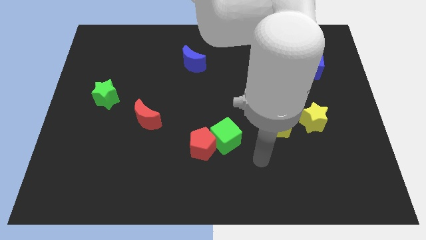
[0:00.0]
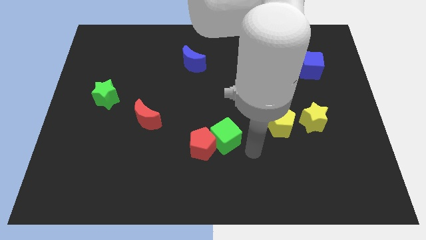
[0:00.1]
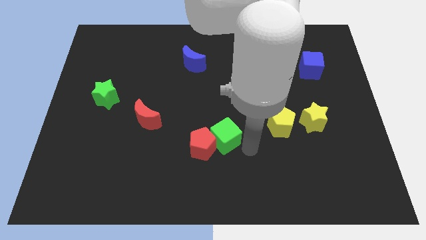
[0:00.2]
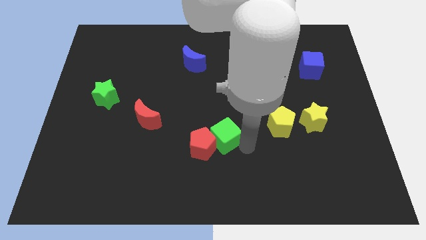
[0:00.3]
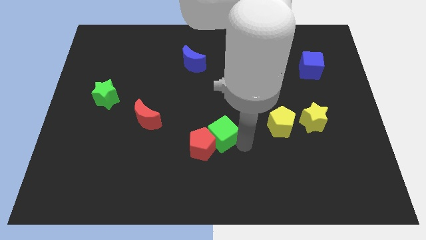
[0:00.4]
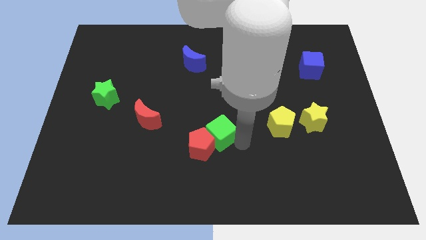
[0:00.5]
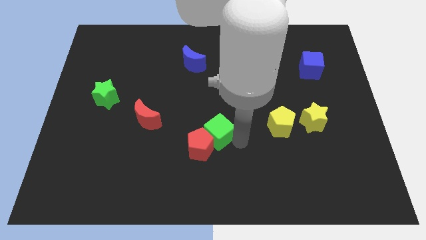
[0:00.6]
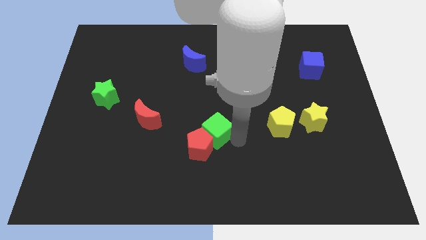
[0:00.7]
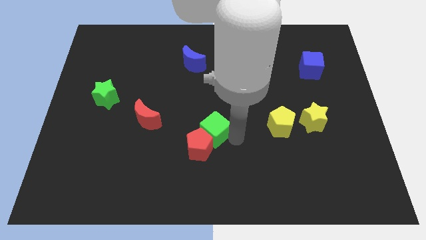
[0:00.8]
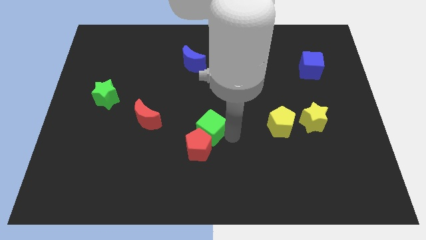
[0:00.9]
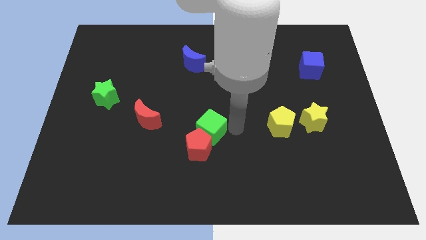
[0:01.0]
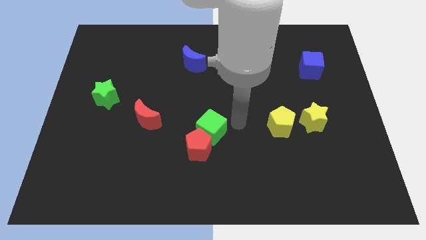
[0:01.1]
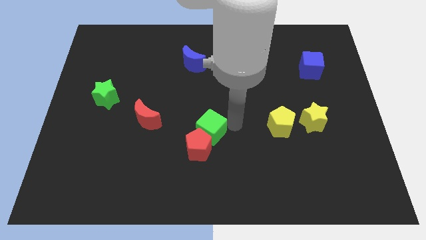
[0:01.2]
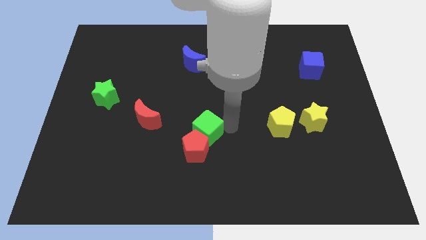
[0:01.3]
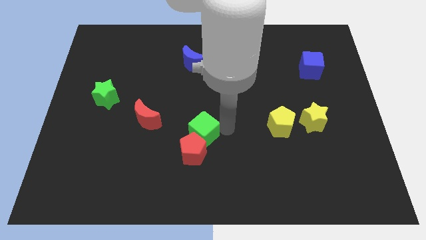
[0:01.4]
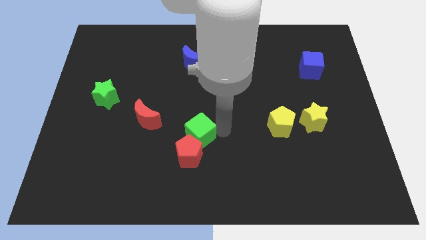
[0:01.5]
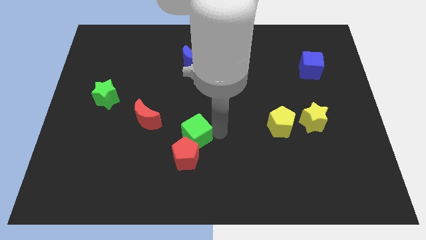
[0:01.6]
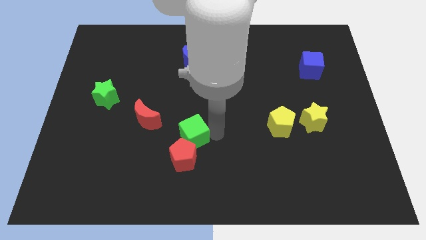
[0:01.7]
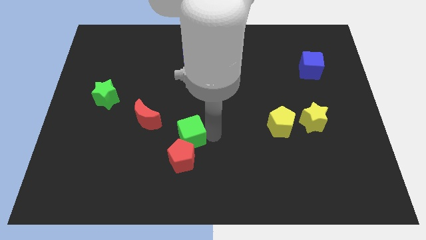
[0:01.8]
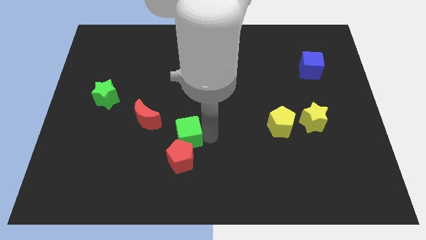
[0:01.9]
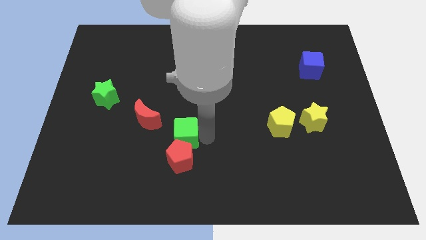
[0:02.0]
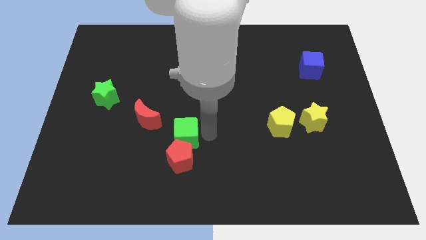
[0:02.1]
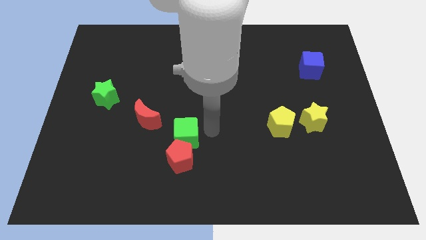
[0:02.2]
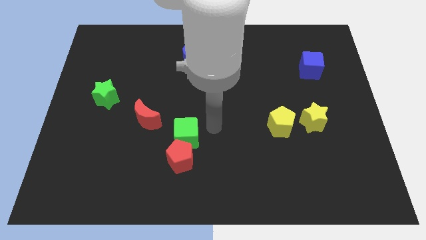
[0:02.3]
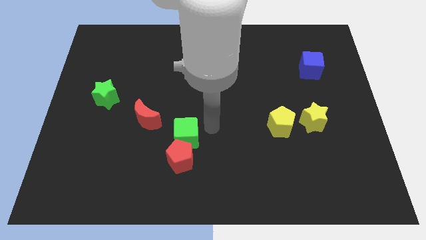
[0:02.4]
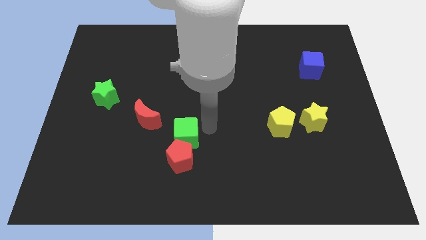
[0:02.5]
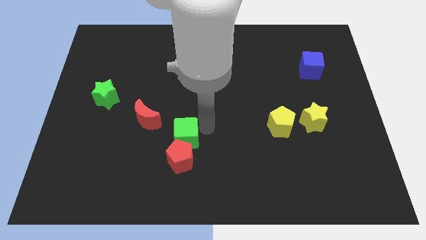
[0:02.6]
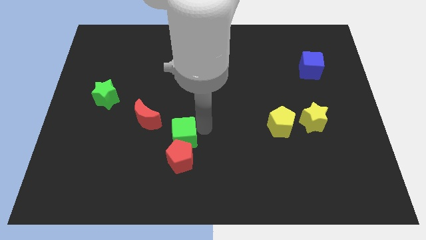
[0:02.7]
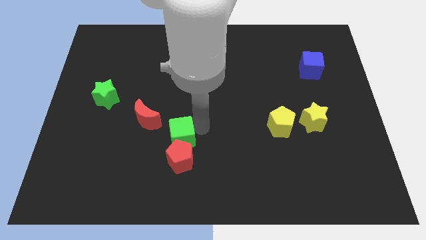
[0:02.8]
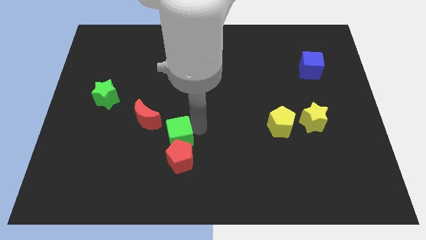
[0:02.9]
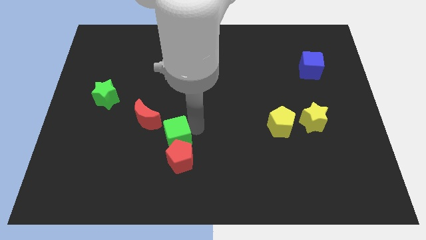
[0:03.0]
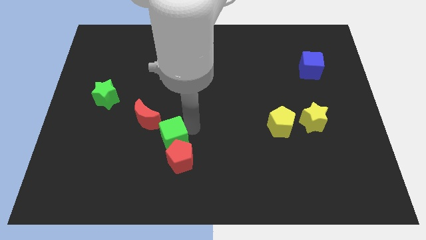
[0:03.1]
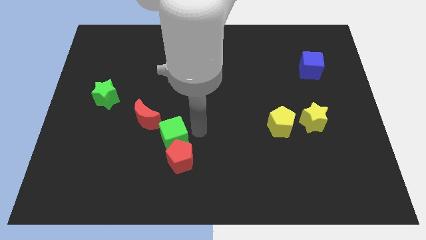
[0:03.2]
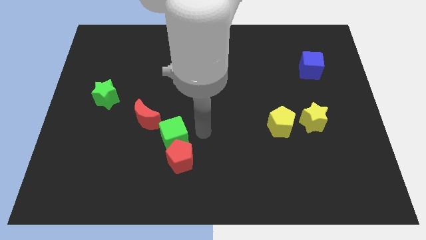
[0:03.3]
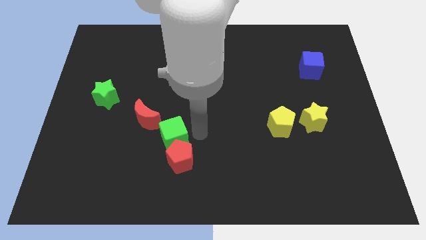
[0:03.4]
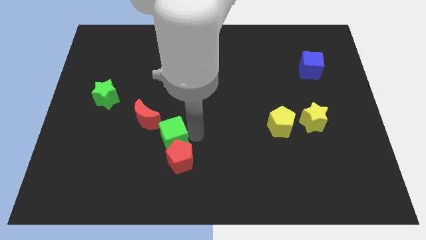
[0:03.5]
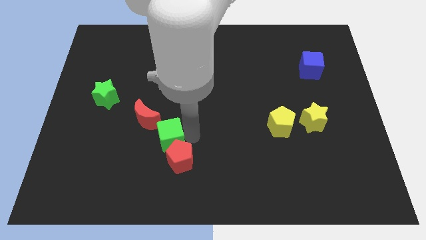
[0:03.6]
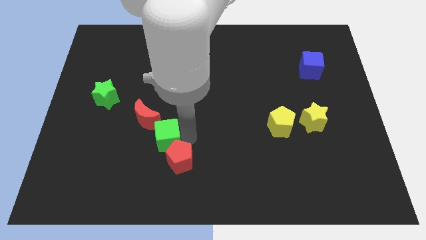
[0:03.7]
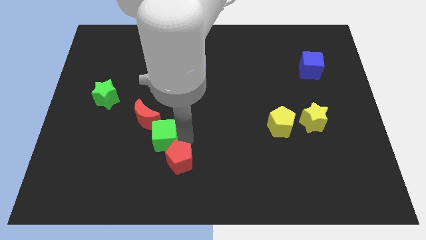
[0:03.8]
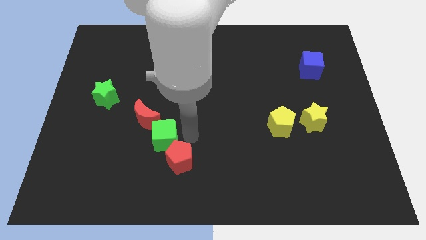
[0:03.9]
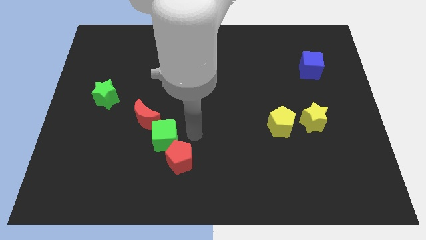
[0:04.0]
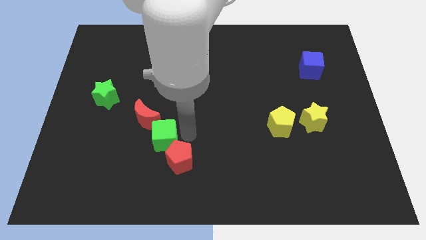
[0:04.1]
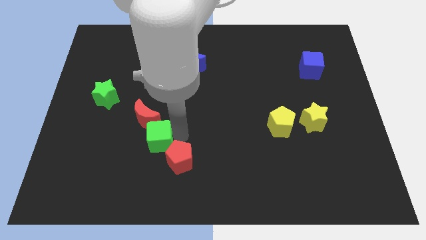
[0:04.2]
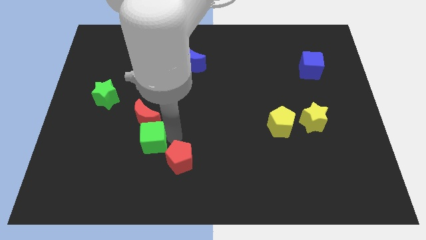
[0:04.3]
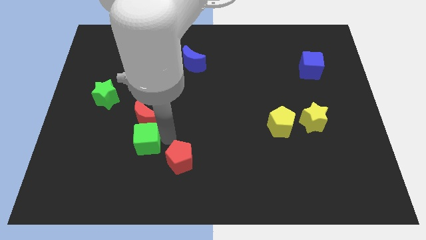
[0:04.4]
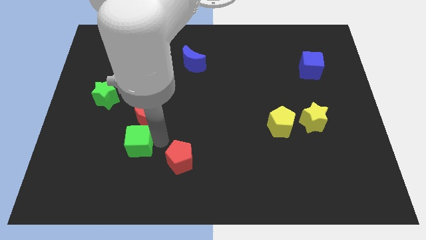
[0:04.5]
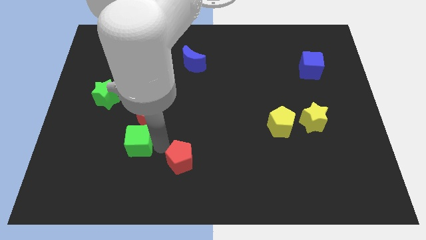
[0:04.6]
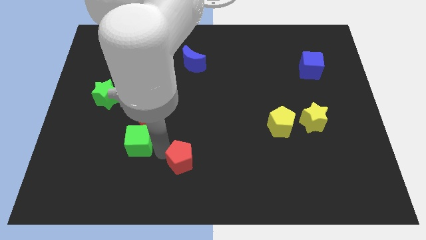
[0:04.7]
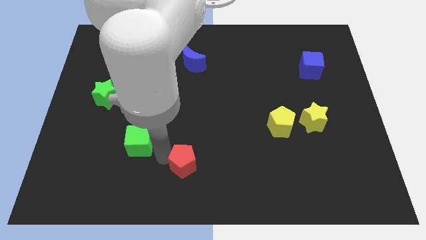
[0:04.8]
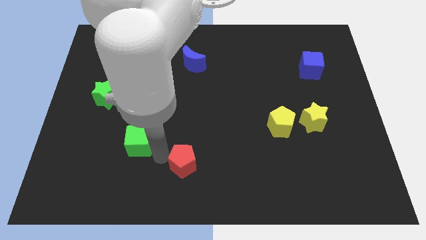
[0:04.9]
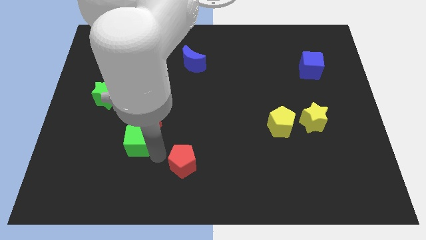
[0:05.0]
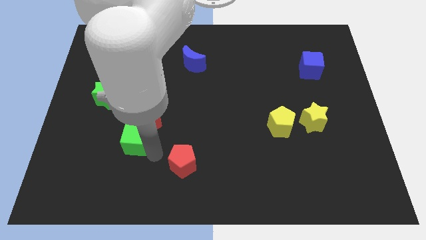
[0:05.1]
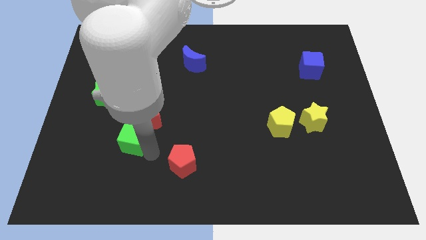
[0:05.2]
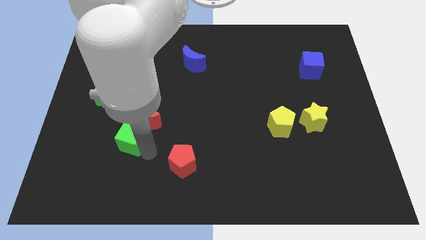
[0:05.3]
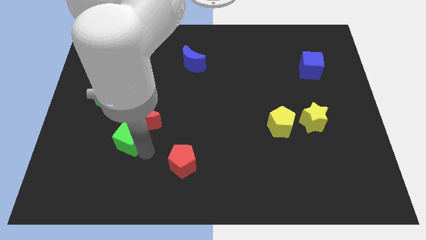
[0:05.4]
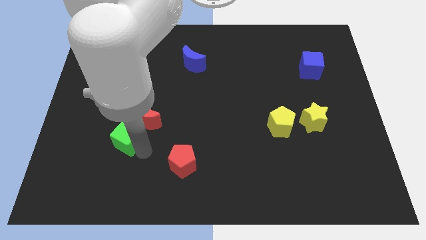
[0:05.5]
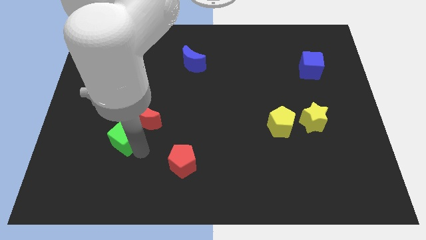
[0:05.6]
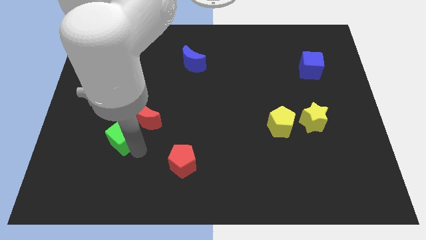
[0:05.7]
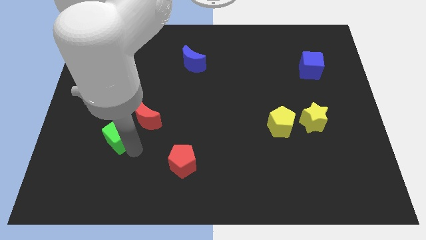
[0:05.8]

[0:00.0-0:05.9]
put the green cube to the left of the red moon

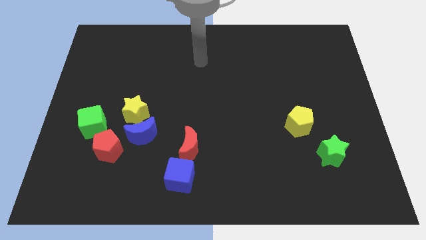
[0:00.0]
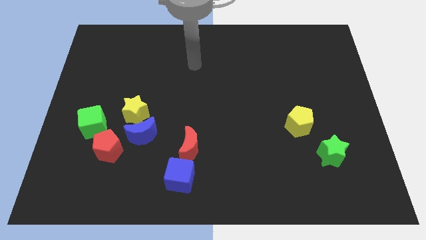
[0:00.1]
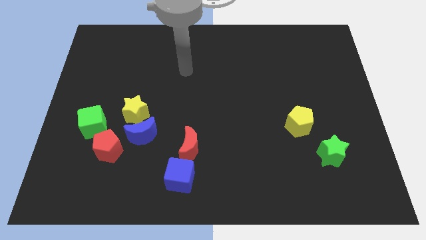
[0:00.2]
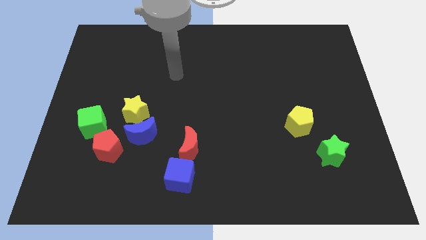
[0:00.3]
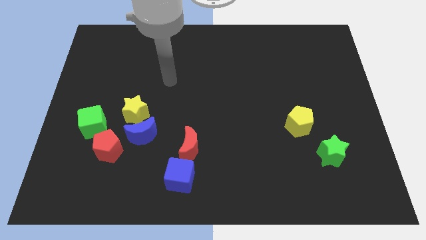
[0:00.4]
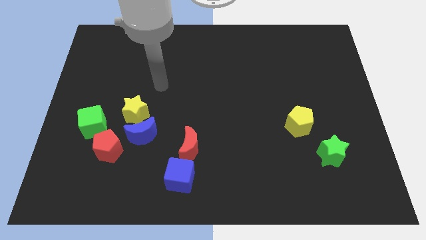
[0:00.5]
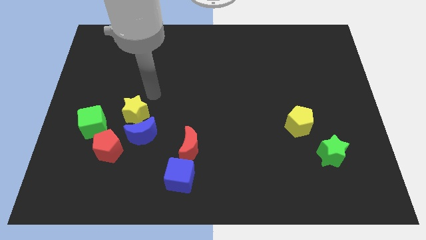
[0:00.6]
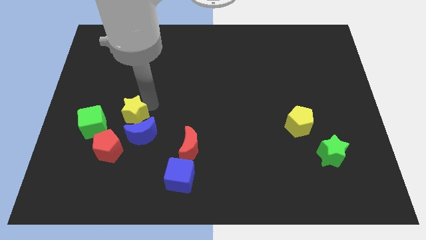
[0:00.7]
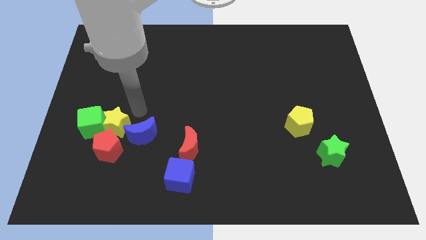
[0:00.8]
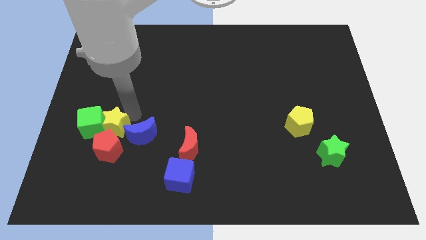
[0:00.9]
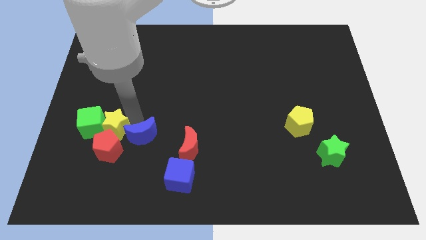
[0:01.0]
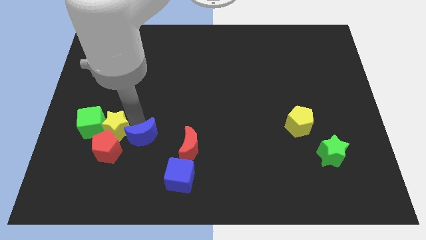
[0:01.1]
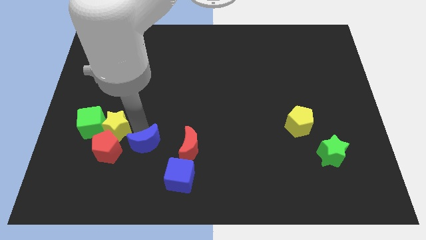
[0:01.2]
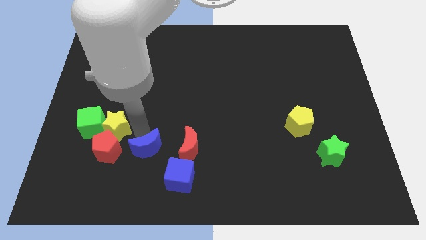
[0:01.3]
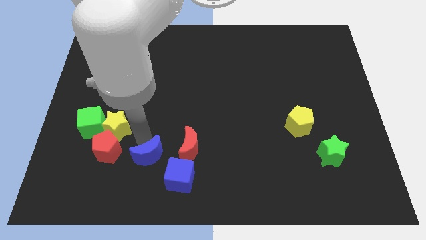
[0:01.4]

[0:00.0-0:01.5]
slide the blue moon diagonally down and to the left of the red moon
